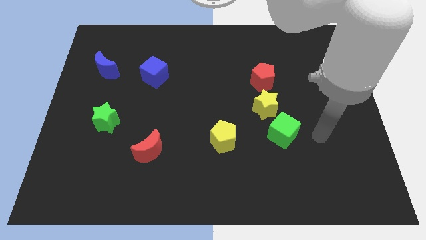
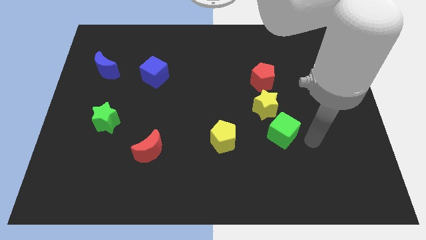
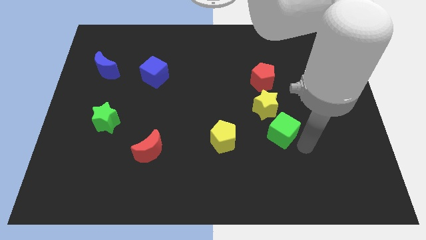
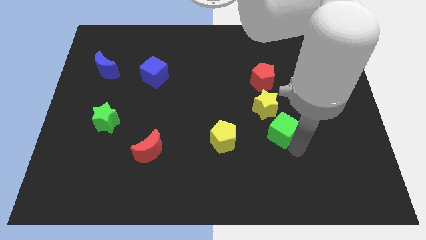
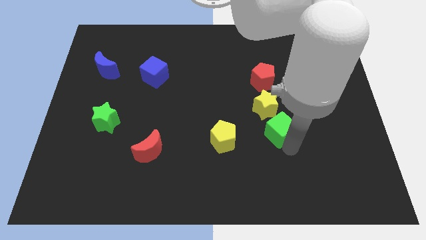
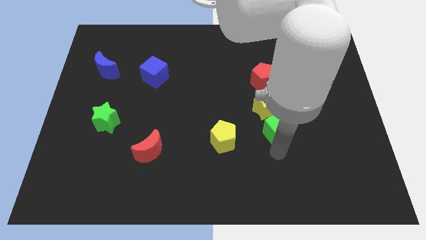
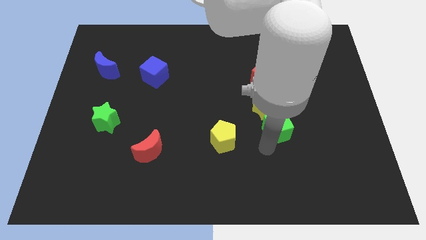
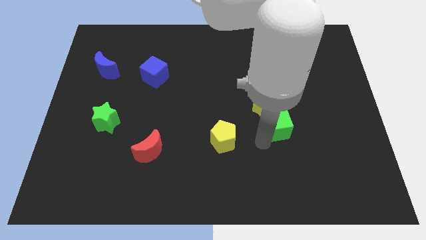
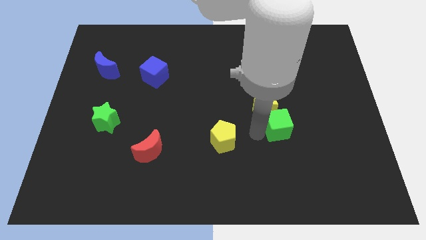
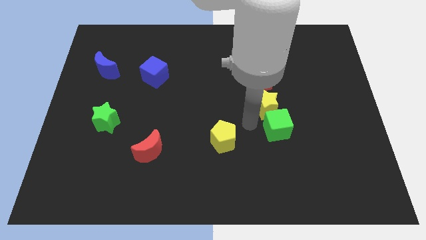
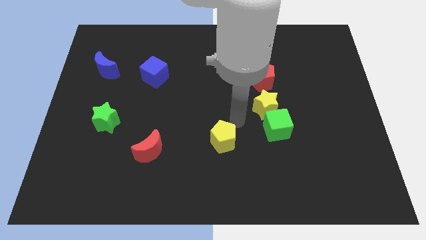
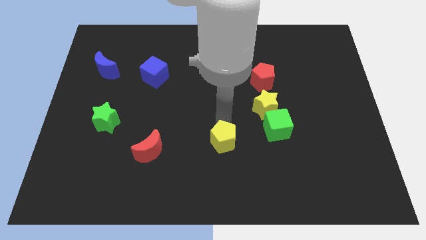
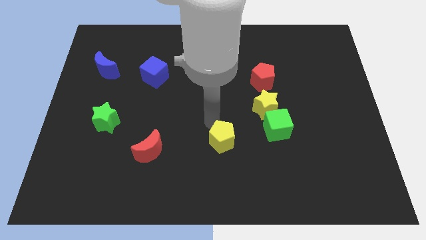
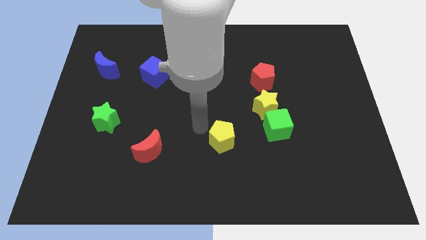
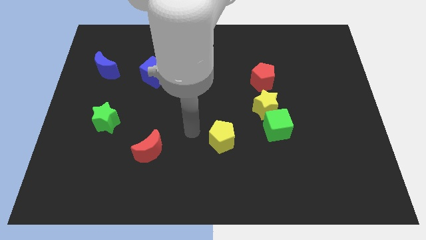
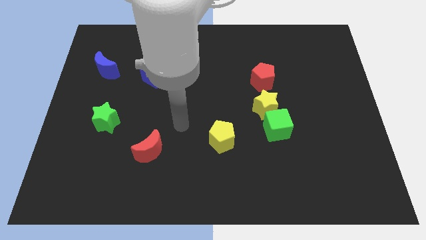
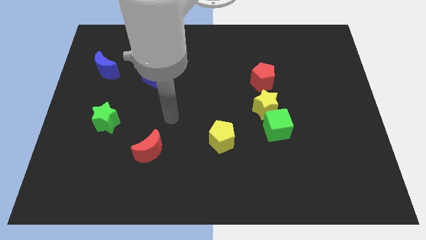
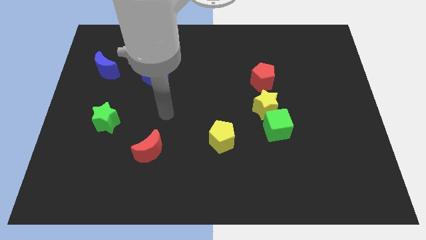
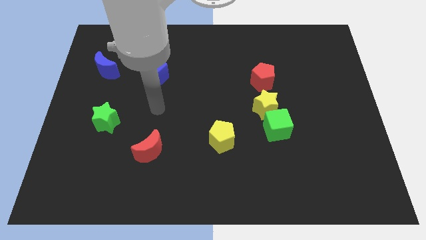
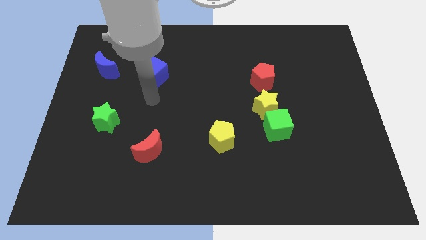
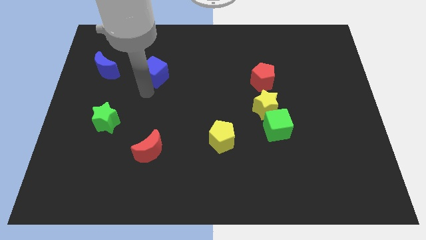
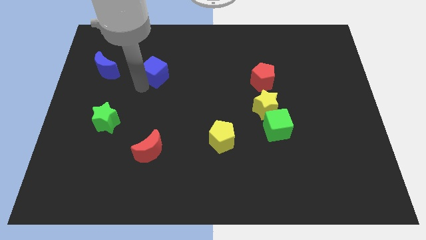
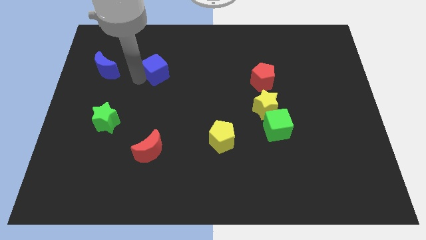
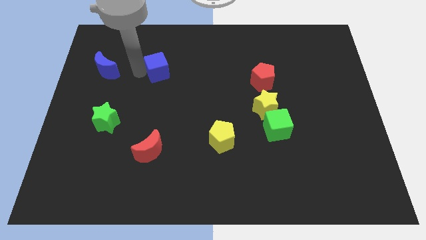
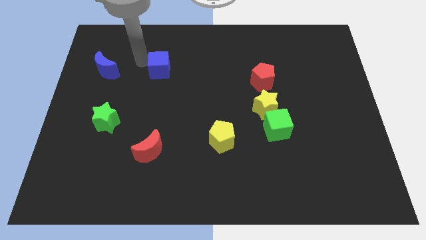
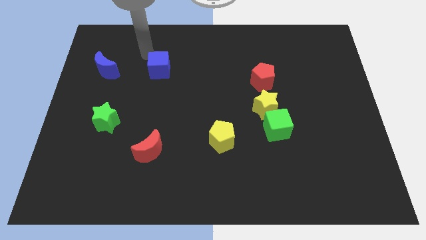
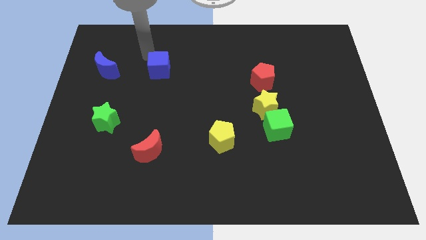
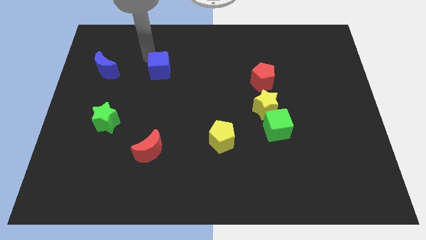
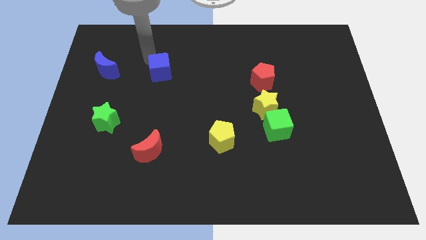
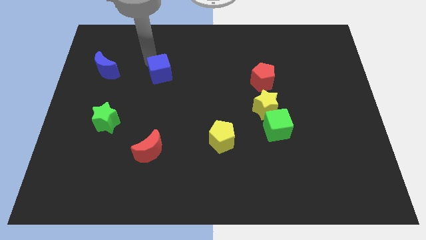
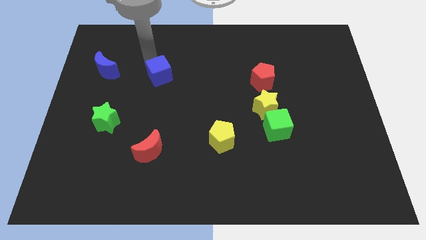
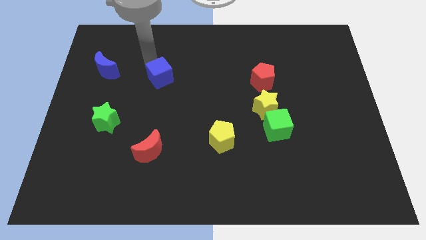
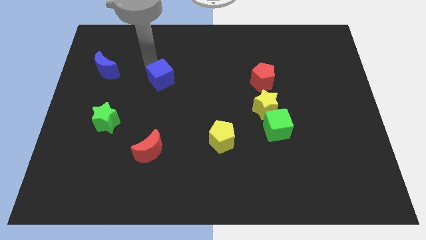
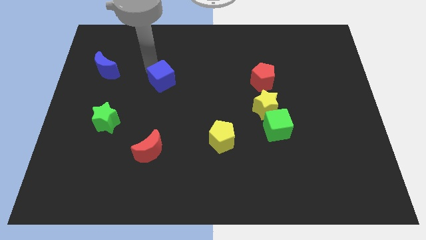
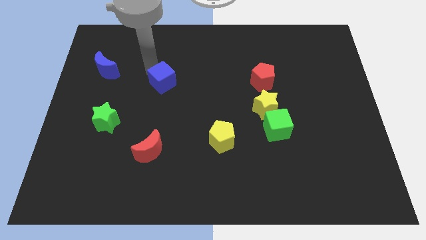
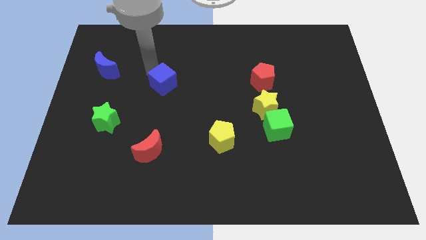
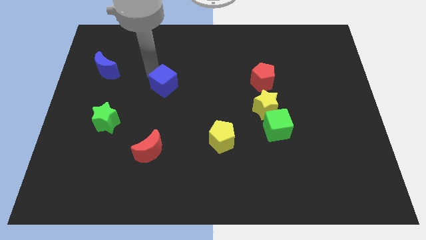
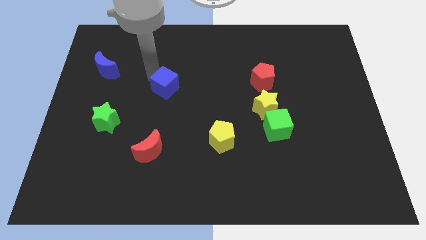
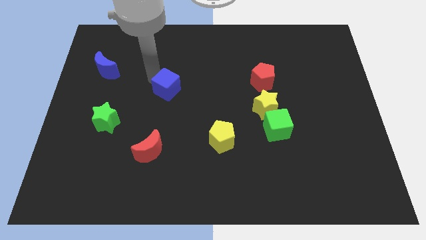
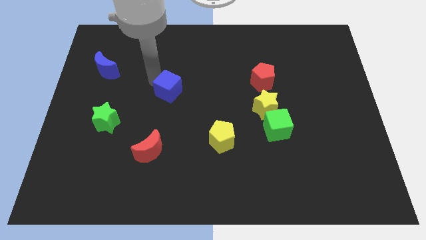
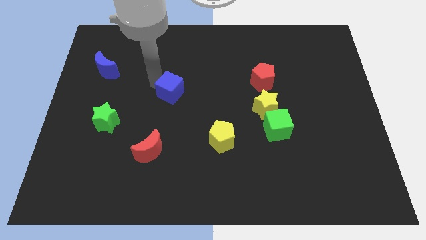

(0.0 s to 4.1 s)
slightly push the blue cube down and right

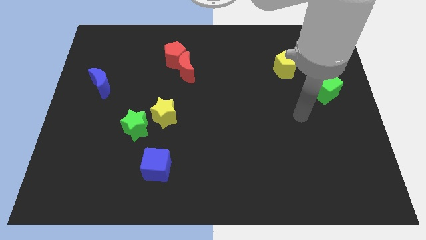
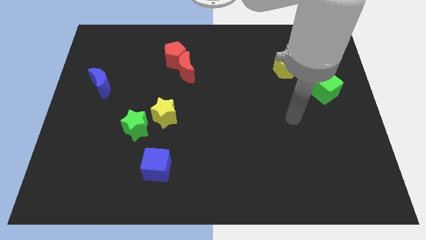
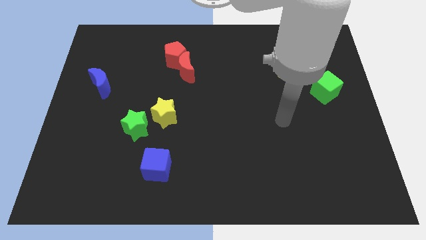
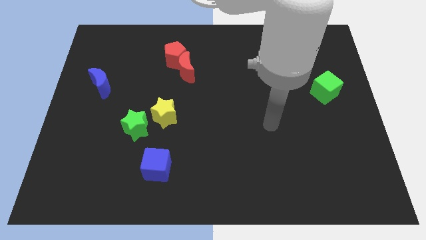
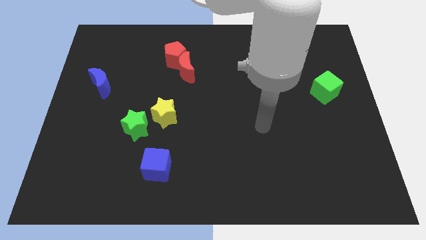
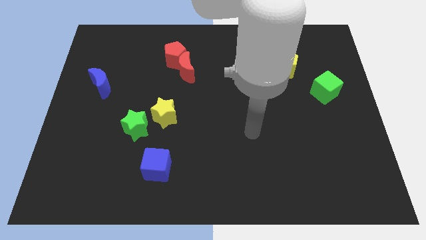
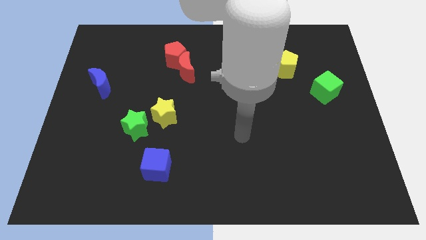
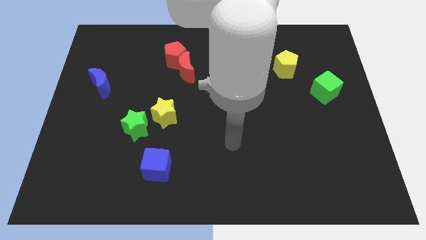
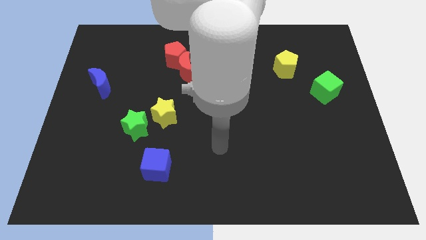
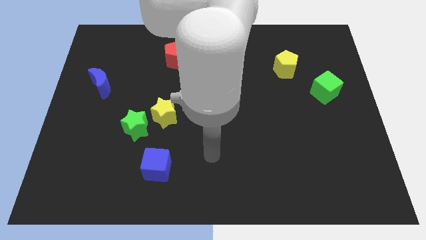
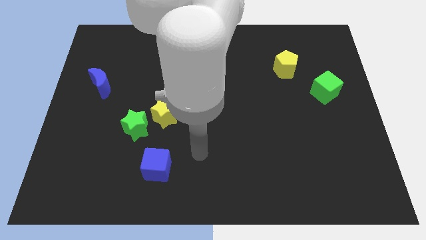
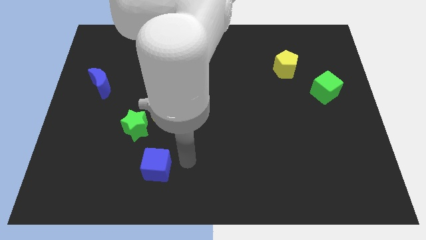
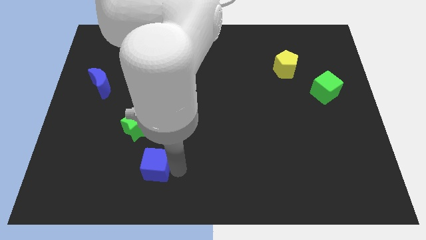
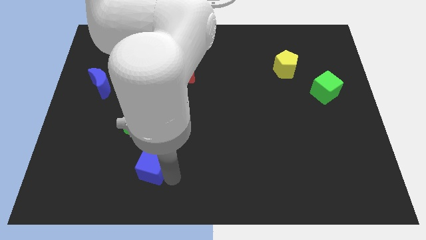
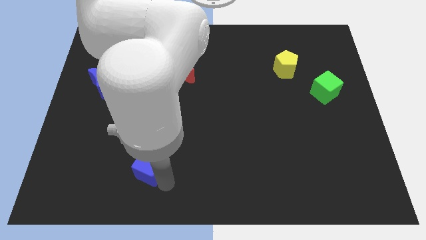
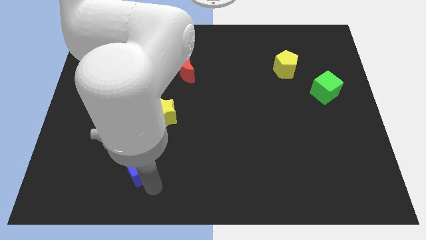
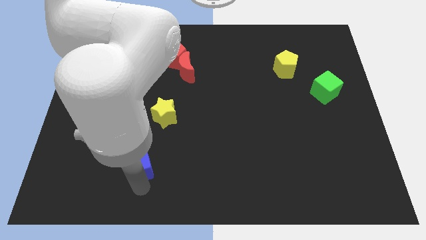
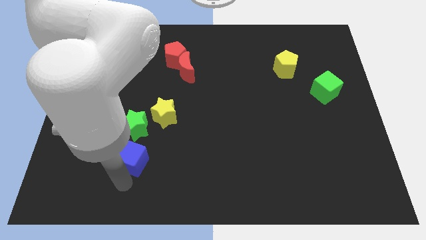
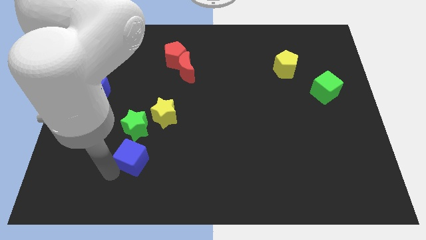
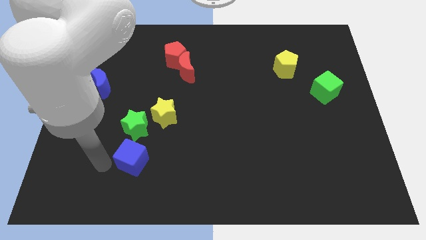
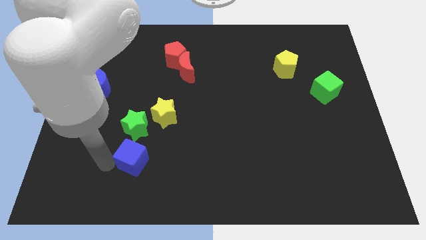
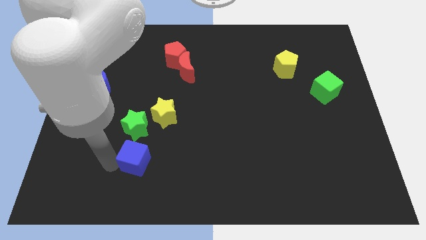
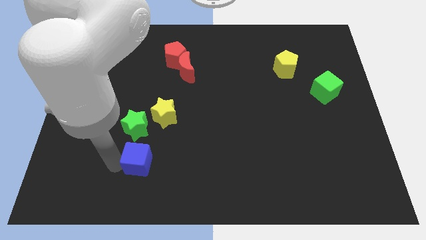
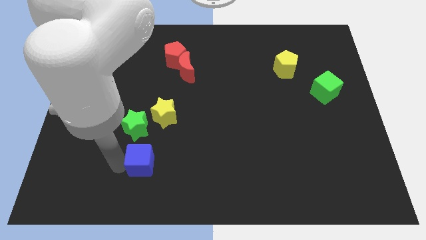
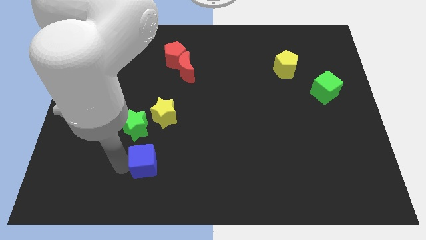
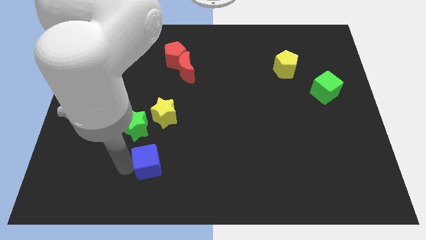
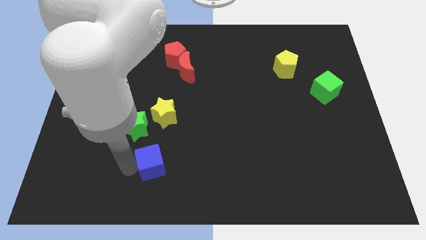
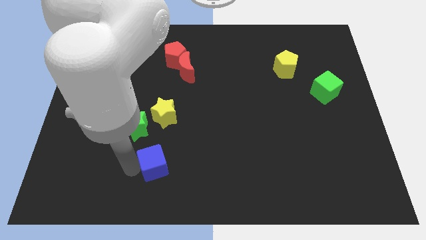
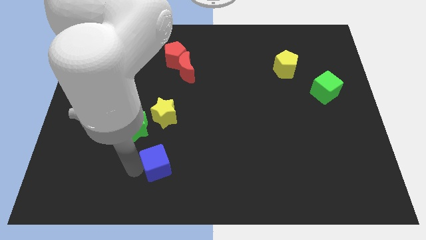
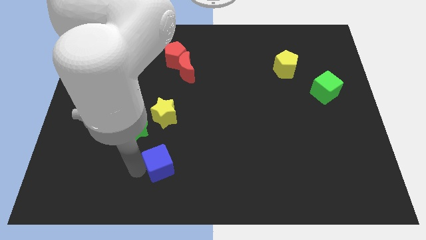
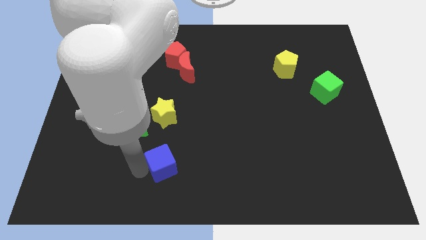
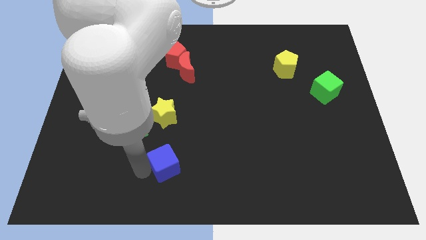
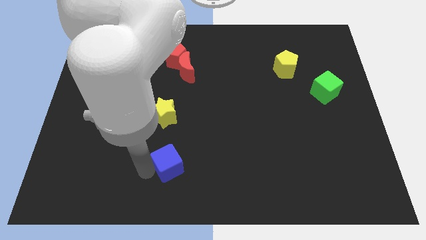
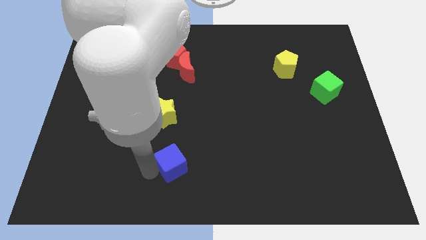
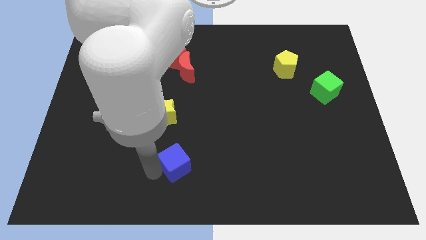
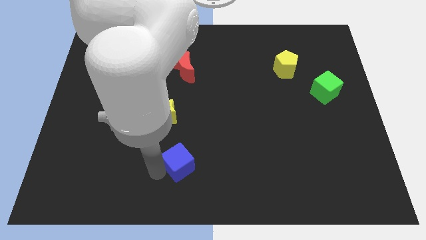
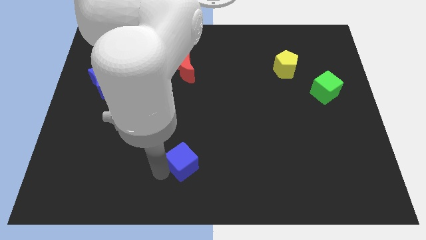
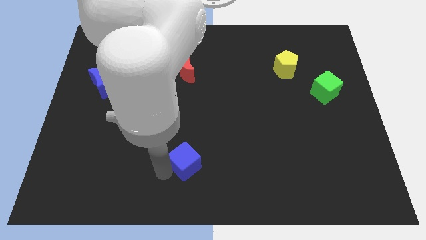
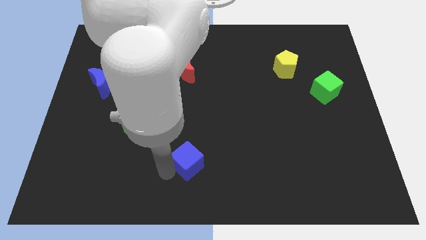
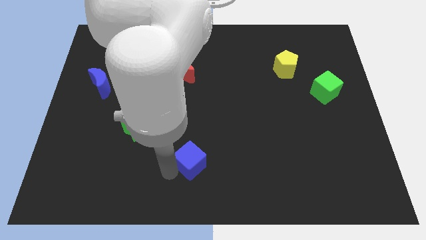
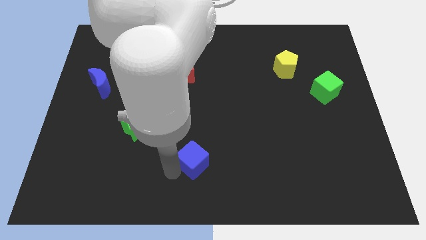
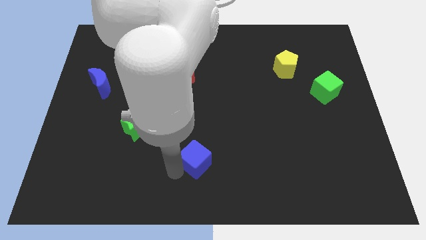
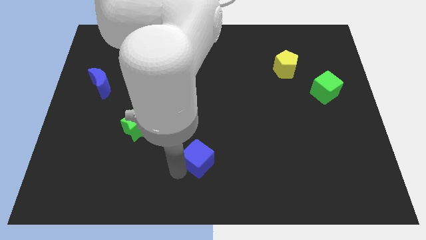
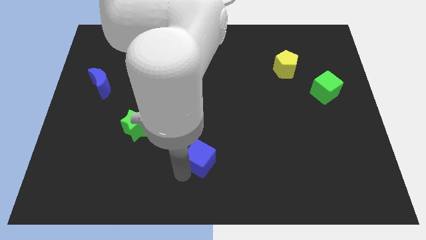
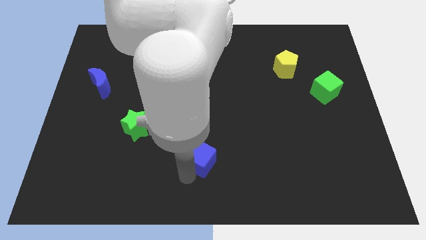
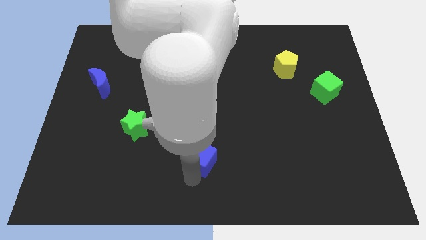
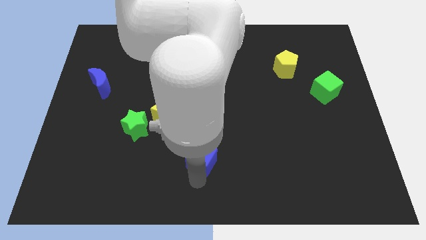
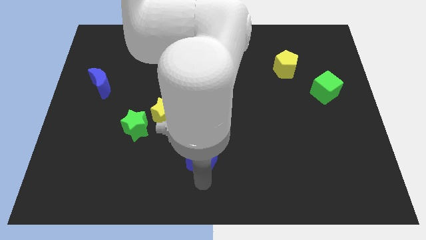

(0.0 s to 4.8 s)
slide the blue cube up and to the right slightly
